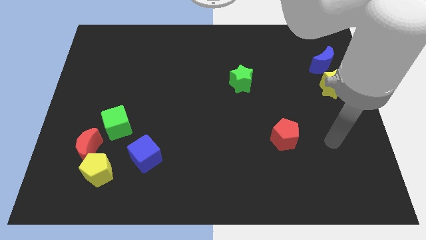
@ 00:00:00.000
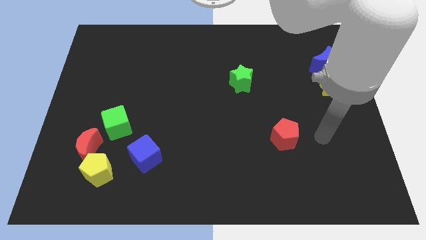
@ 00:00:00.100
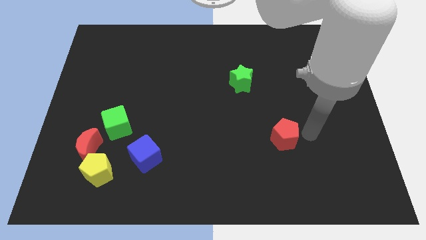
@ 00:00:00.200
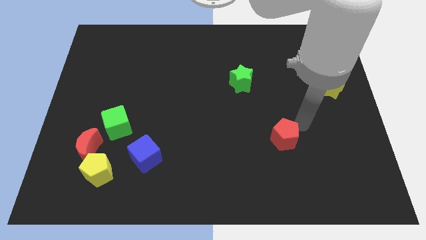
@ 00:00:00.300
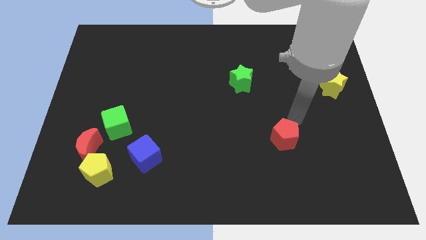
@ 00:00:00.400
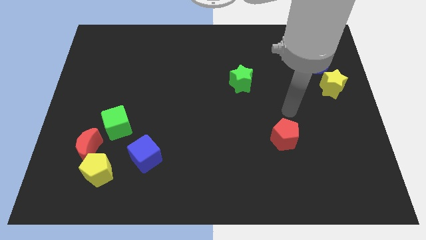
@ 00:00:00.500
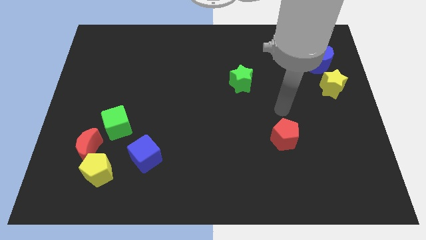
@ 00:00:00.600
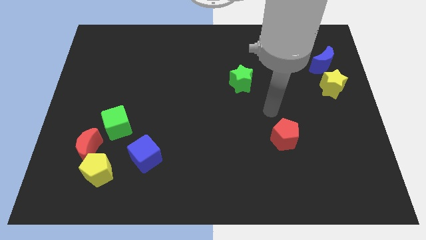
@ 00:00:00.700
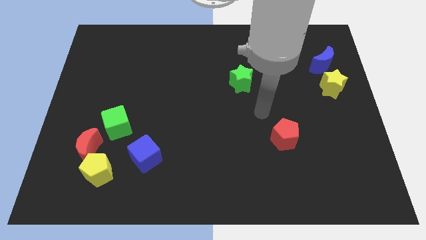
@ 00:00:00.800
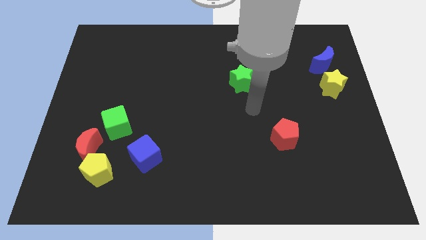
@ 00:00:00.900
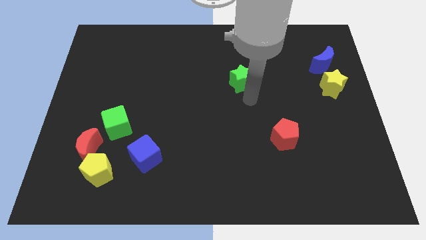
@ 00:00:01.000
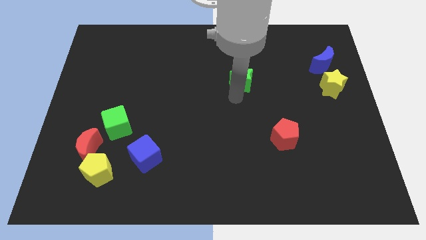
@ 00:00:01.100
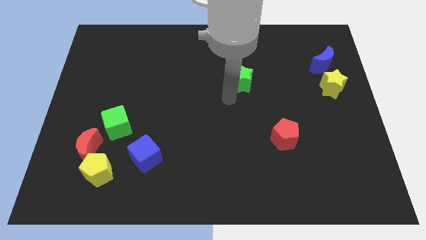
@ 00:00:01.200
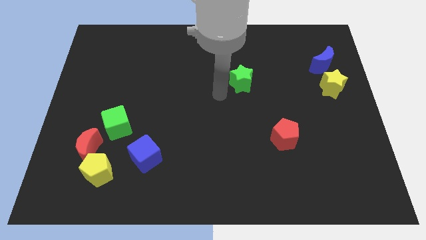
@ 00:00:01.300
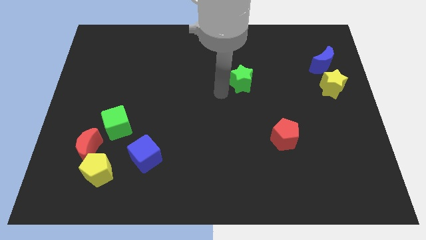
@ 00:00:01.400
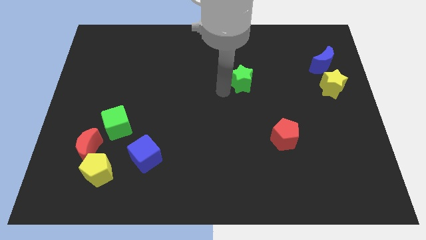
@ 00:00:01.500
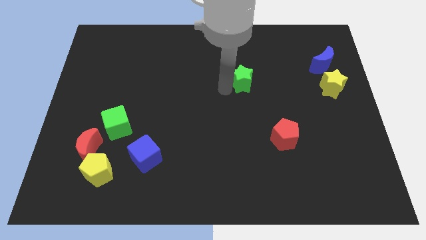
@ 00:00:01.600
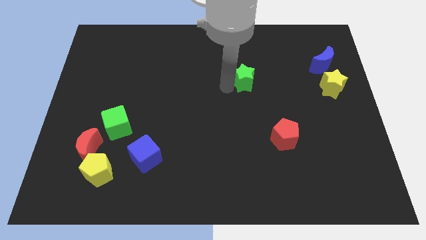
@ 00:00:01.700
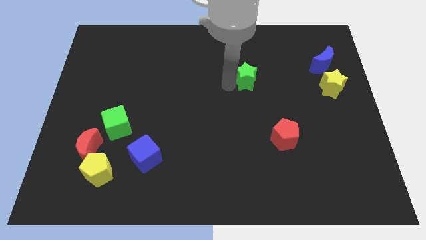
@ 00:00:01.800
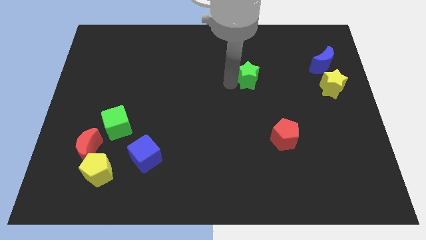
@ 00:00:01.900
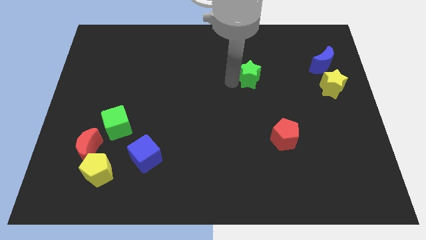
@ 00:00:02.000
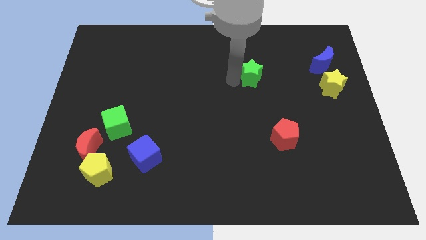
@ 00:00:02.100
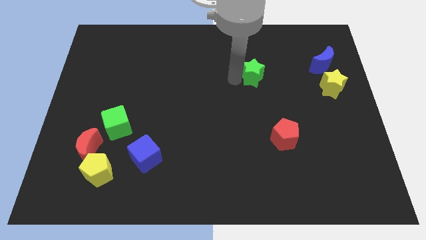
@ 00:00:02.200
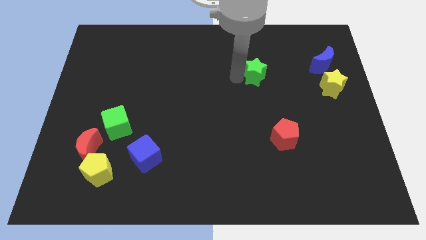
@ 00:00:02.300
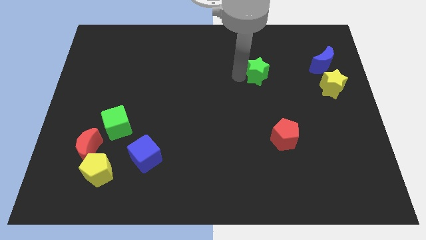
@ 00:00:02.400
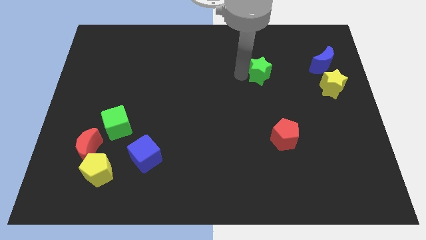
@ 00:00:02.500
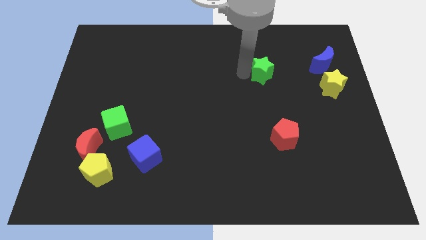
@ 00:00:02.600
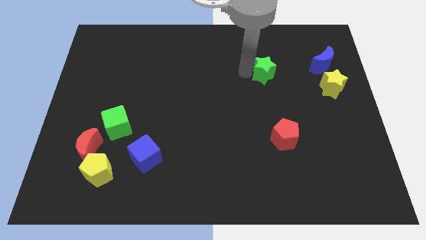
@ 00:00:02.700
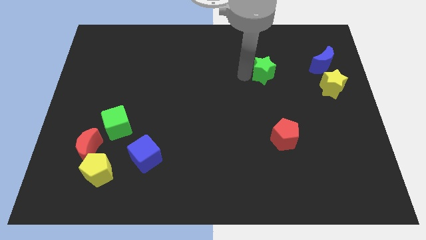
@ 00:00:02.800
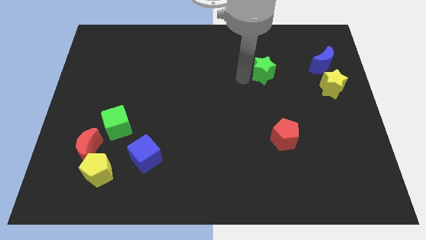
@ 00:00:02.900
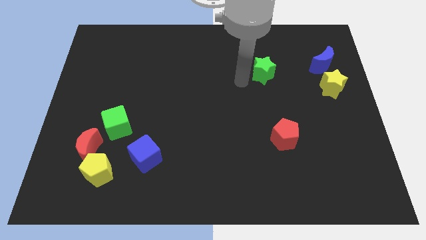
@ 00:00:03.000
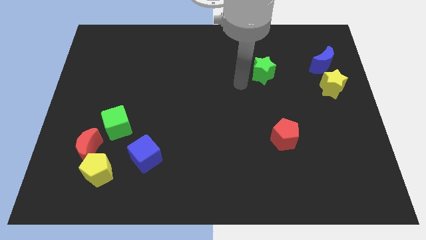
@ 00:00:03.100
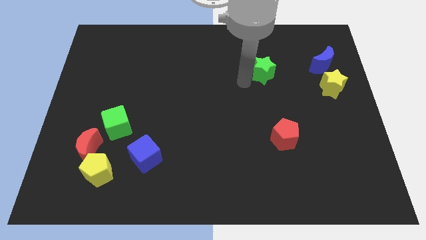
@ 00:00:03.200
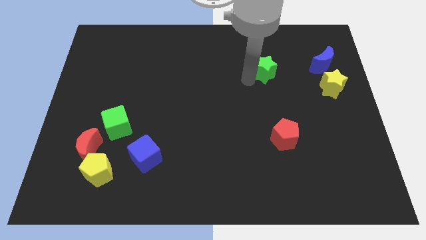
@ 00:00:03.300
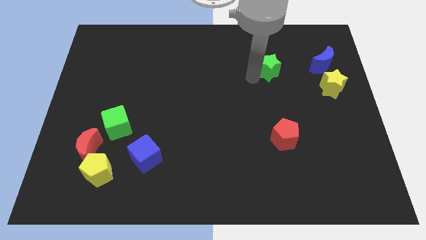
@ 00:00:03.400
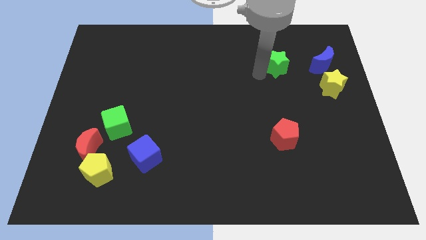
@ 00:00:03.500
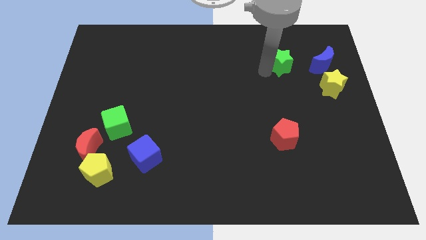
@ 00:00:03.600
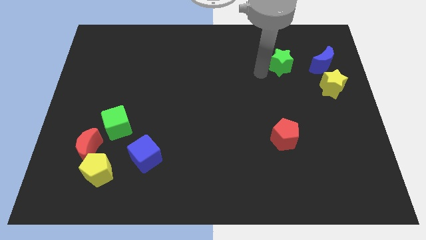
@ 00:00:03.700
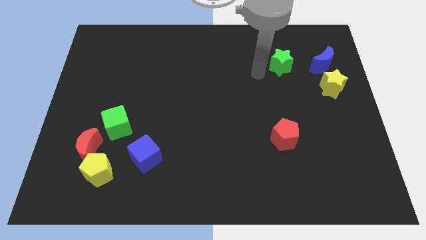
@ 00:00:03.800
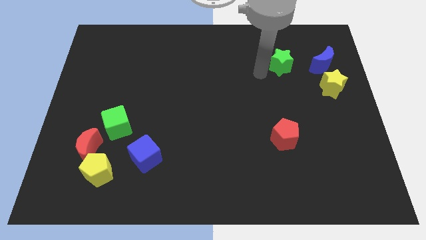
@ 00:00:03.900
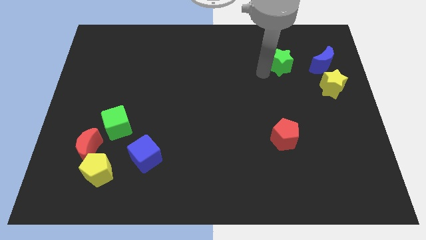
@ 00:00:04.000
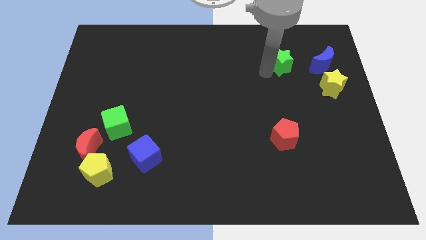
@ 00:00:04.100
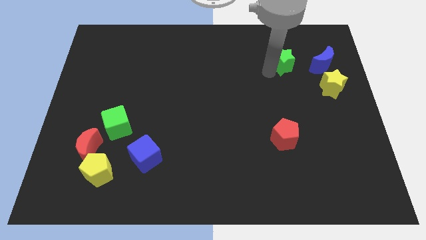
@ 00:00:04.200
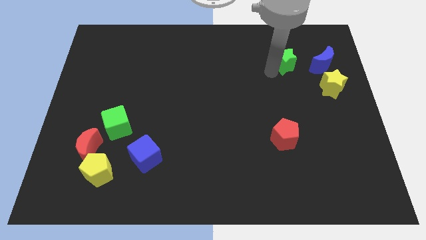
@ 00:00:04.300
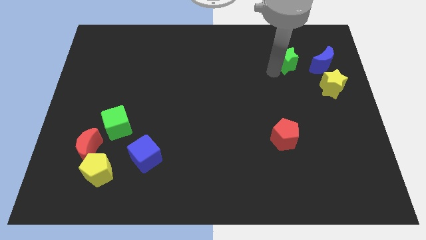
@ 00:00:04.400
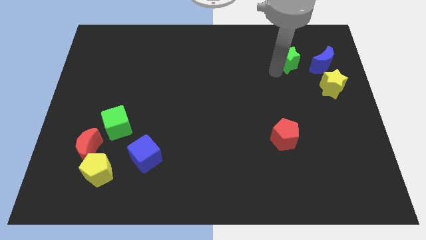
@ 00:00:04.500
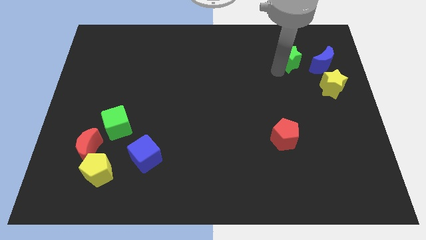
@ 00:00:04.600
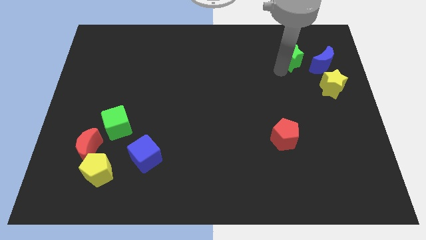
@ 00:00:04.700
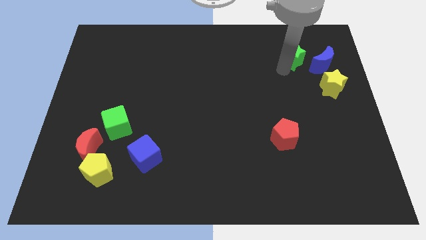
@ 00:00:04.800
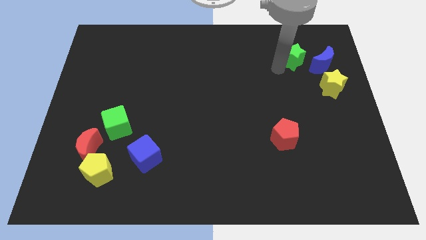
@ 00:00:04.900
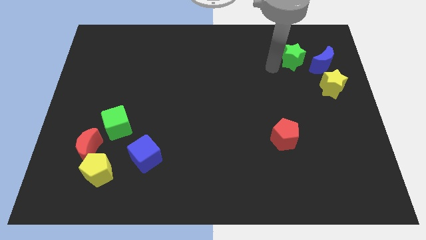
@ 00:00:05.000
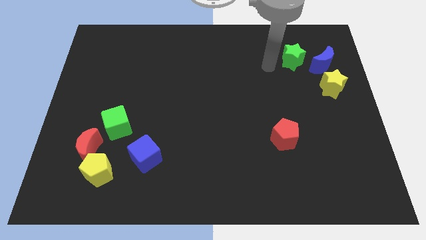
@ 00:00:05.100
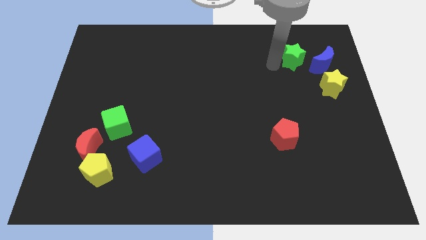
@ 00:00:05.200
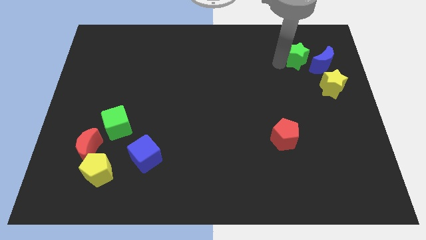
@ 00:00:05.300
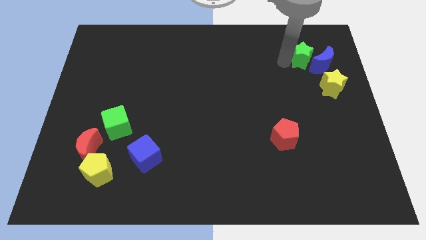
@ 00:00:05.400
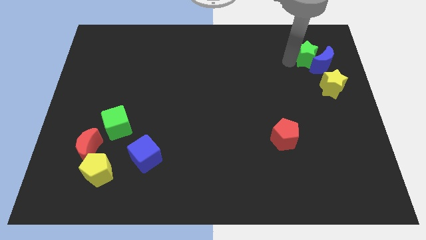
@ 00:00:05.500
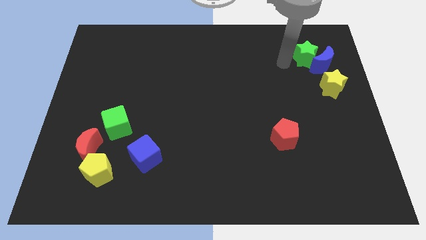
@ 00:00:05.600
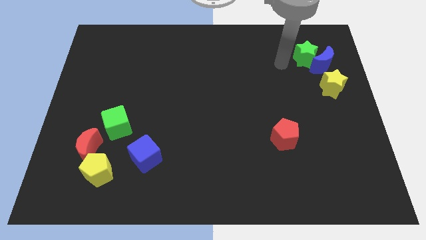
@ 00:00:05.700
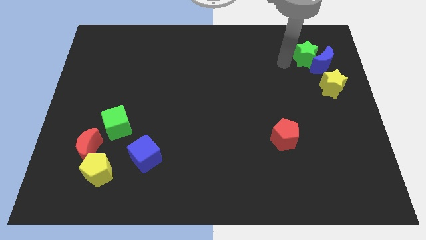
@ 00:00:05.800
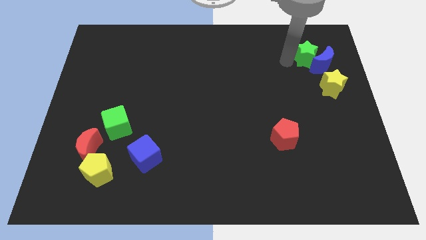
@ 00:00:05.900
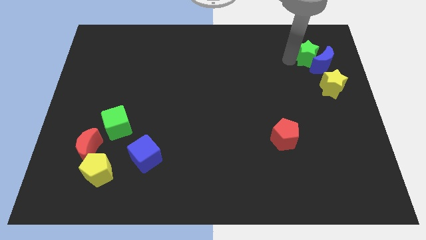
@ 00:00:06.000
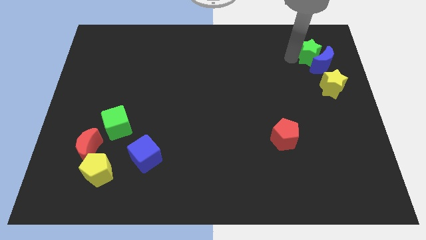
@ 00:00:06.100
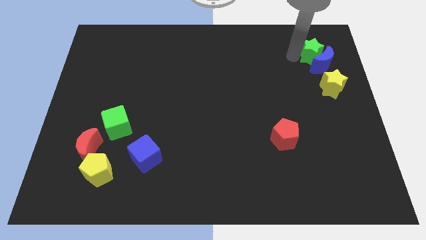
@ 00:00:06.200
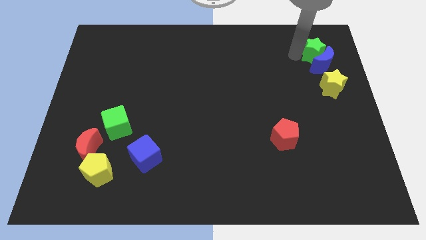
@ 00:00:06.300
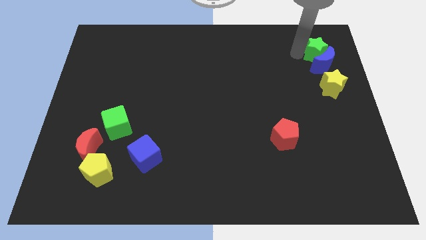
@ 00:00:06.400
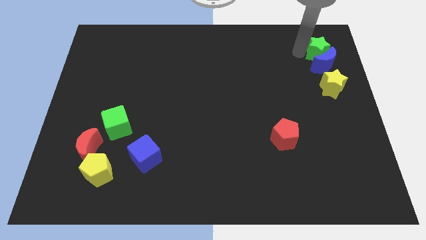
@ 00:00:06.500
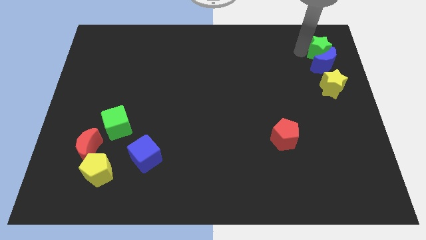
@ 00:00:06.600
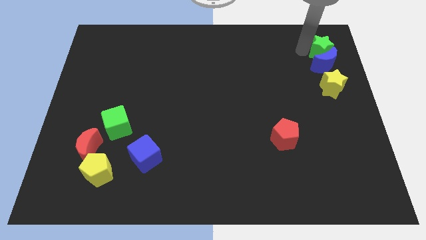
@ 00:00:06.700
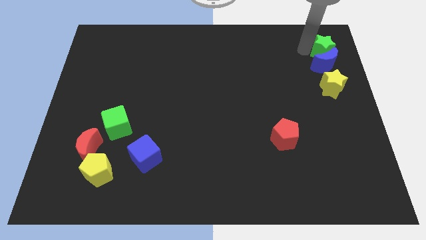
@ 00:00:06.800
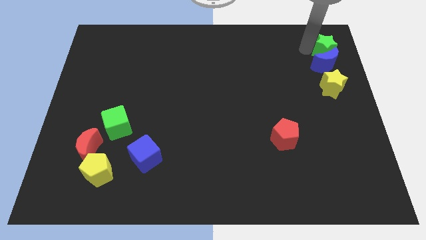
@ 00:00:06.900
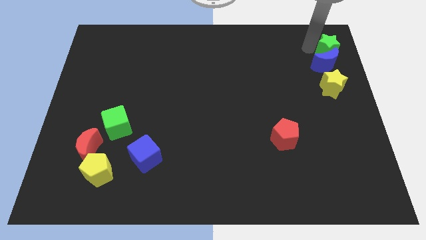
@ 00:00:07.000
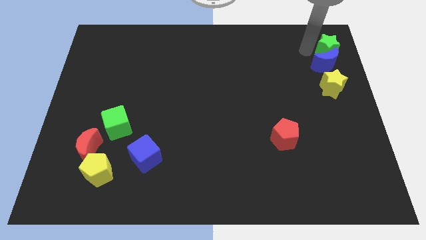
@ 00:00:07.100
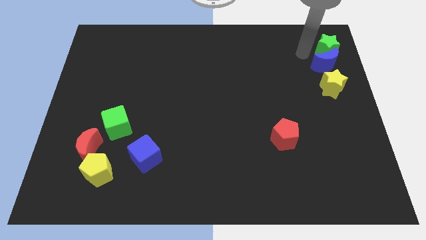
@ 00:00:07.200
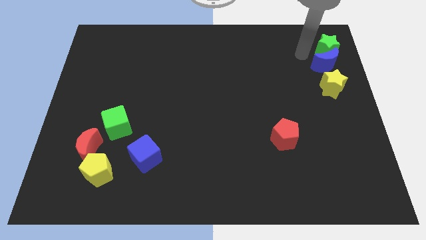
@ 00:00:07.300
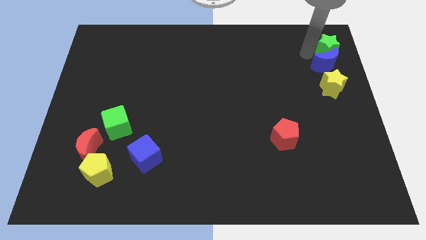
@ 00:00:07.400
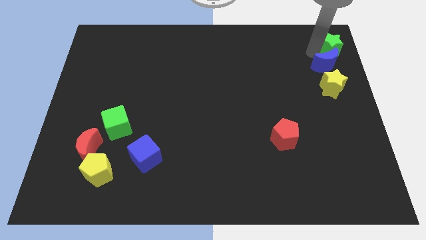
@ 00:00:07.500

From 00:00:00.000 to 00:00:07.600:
put the green star to the top right corner
